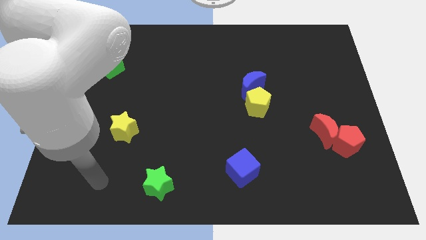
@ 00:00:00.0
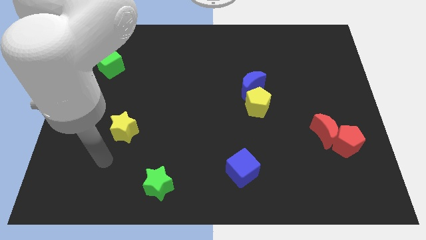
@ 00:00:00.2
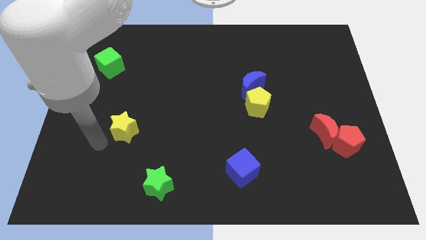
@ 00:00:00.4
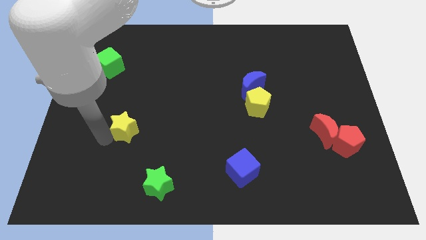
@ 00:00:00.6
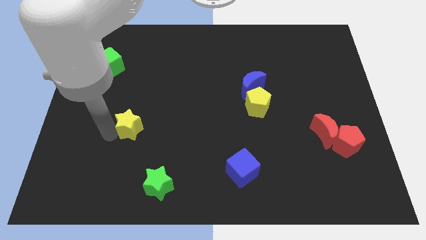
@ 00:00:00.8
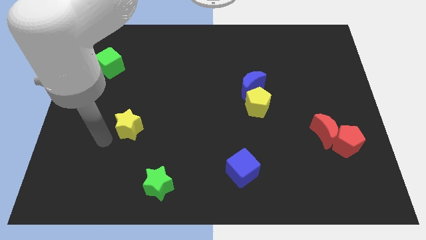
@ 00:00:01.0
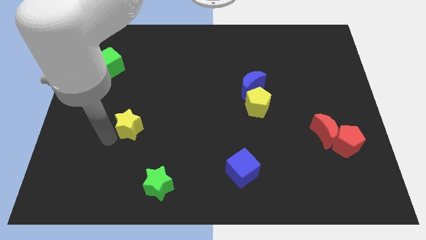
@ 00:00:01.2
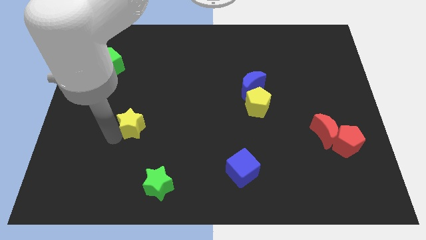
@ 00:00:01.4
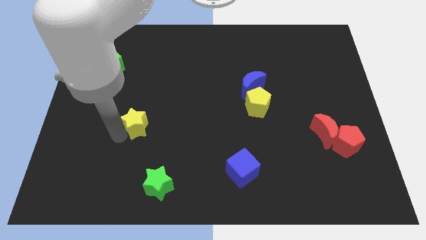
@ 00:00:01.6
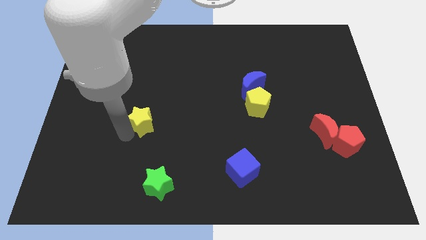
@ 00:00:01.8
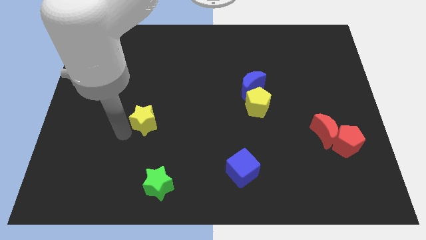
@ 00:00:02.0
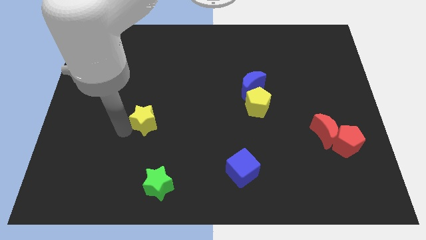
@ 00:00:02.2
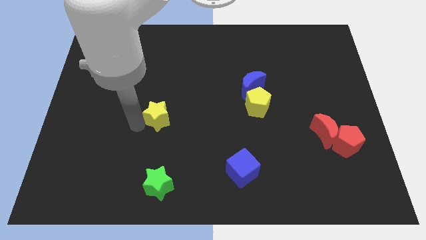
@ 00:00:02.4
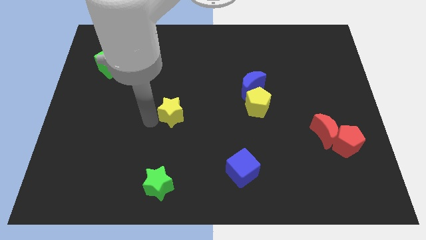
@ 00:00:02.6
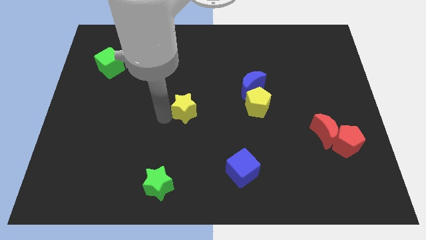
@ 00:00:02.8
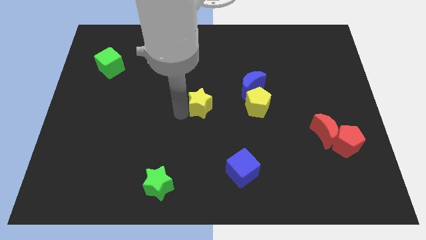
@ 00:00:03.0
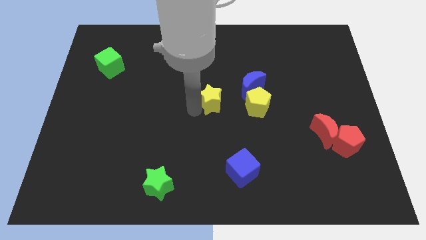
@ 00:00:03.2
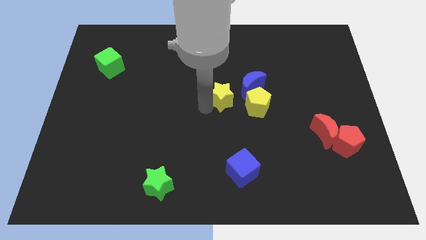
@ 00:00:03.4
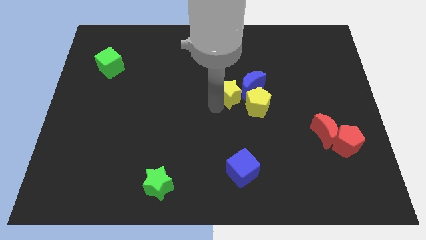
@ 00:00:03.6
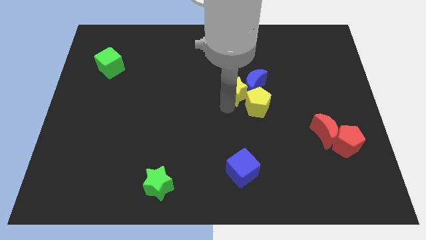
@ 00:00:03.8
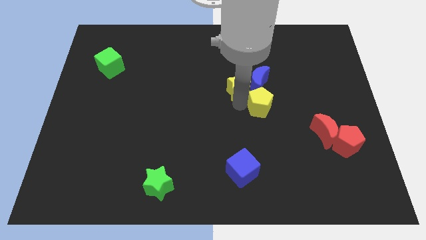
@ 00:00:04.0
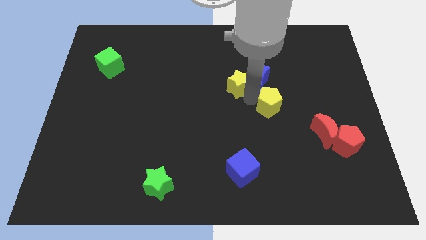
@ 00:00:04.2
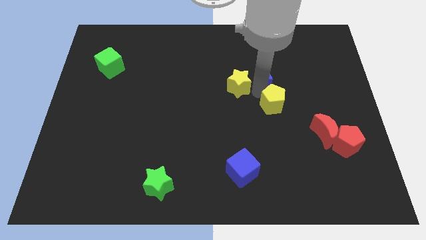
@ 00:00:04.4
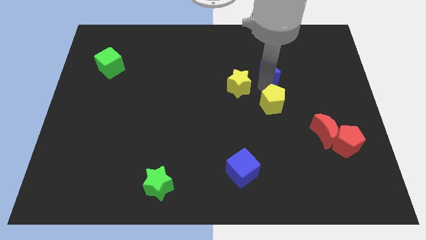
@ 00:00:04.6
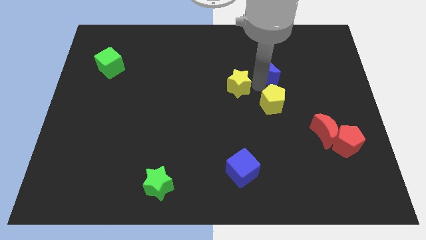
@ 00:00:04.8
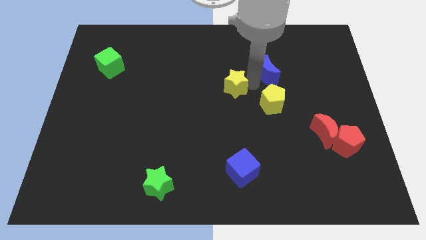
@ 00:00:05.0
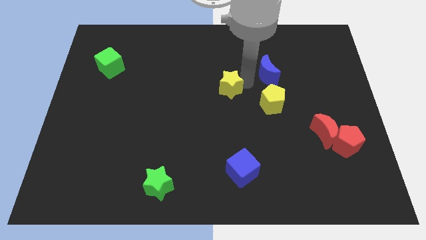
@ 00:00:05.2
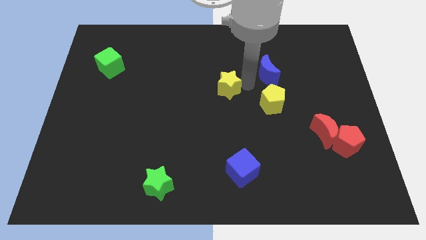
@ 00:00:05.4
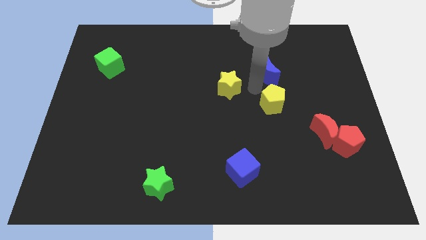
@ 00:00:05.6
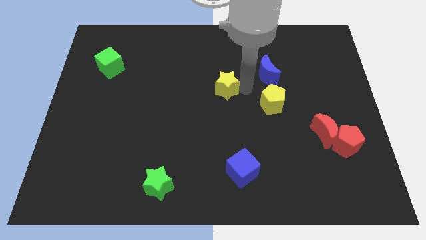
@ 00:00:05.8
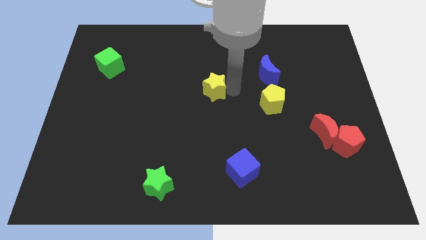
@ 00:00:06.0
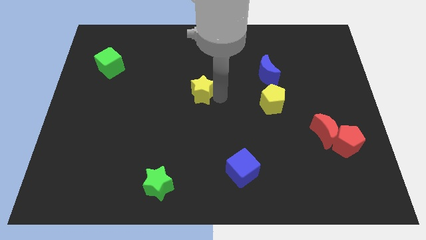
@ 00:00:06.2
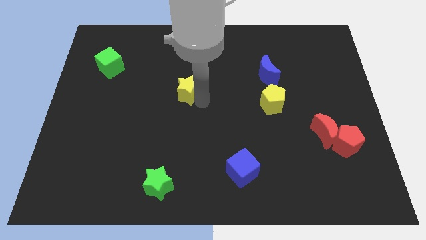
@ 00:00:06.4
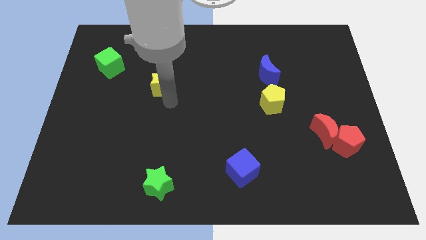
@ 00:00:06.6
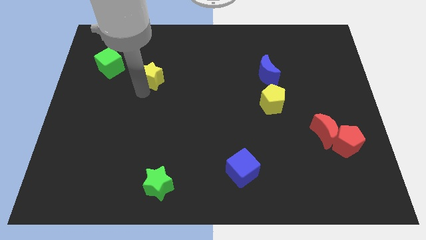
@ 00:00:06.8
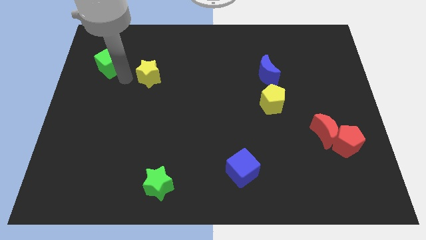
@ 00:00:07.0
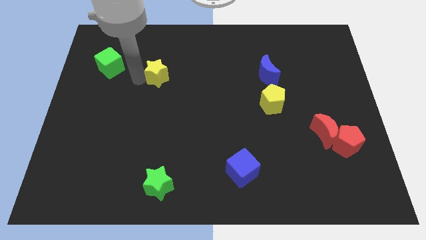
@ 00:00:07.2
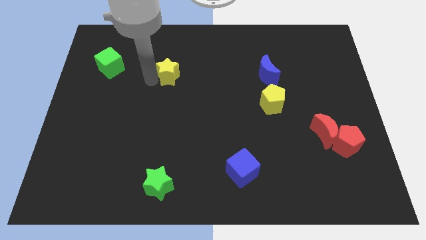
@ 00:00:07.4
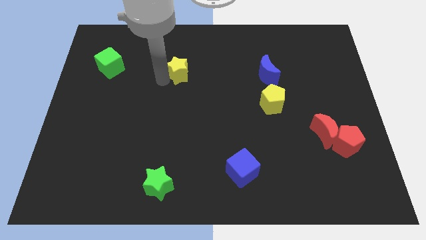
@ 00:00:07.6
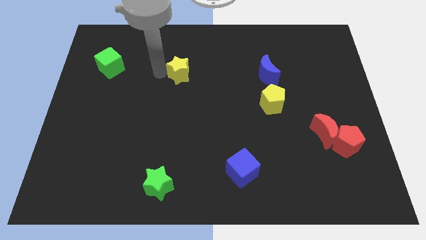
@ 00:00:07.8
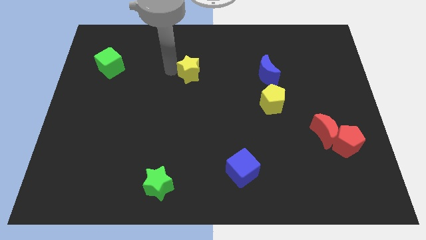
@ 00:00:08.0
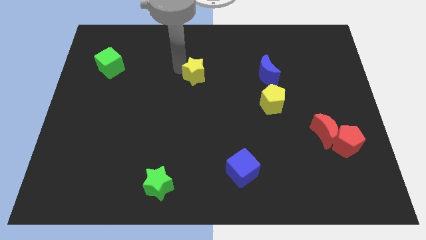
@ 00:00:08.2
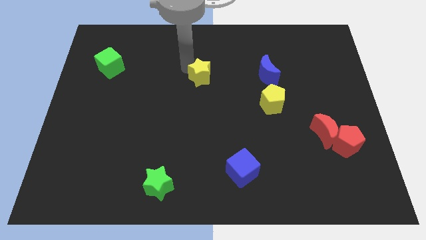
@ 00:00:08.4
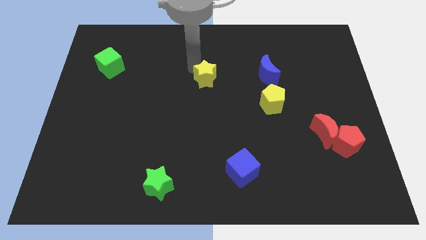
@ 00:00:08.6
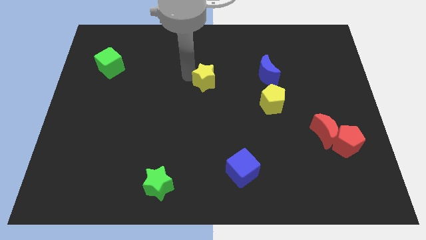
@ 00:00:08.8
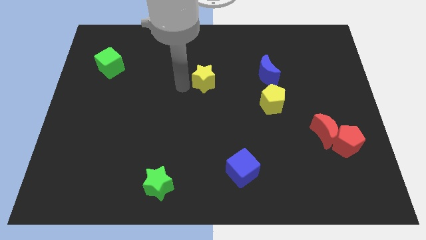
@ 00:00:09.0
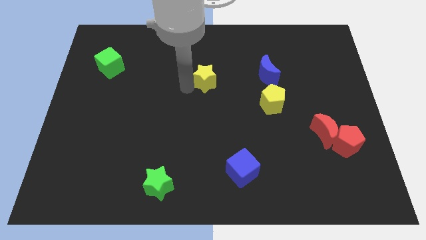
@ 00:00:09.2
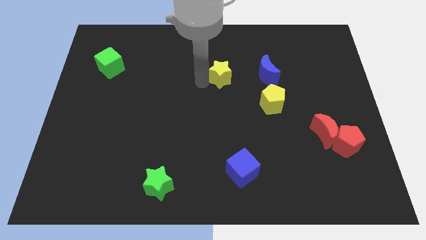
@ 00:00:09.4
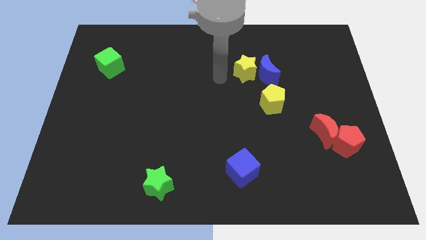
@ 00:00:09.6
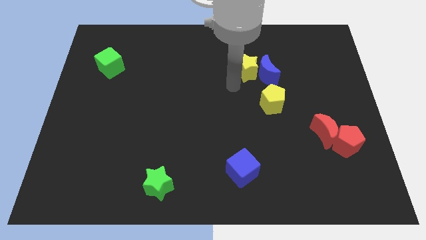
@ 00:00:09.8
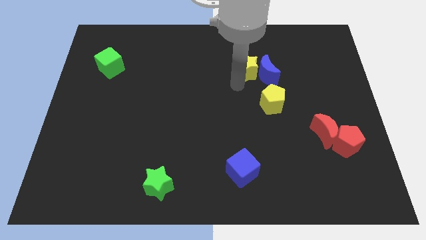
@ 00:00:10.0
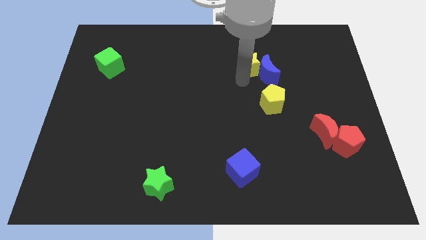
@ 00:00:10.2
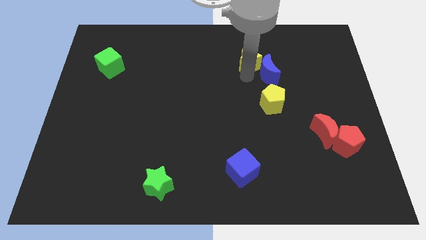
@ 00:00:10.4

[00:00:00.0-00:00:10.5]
put the yellow star to the top of the blue moon

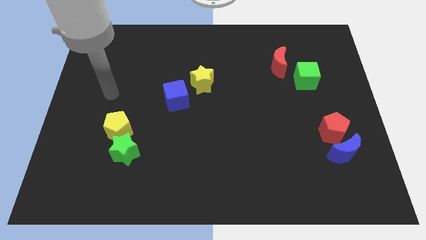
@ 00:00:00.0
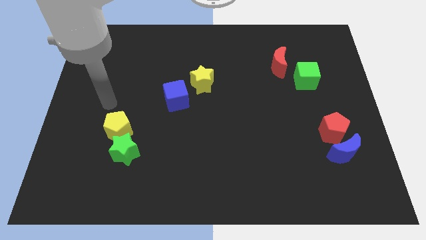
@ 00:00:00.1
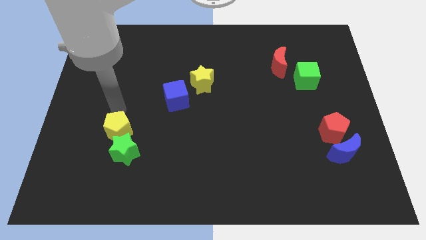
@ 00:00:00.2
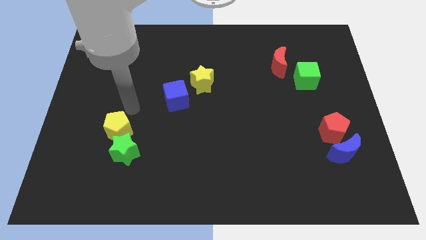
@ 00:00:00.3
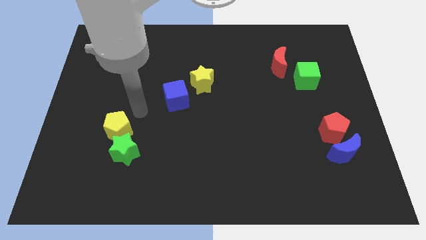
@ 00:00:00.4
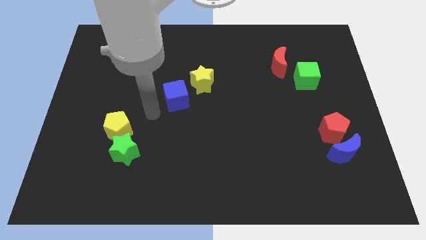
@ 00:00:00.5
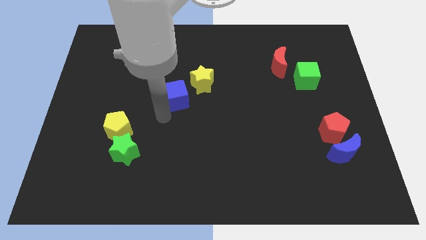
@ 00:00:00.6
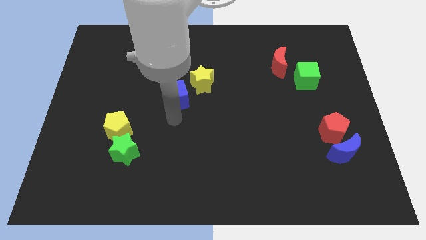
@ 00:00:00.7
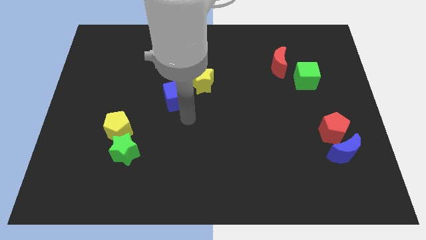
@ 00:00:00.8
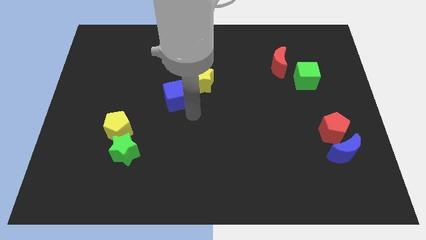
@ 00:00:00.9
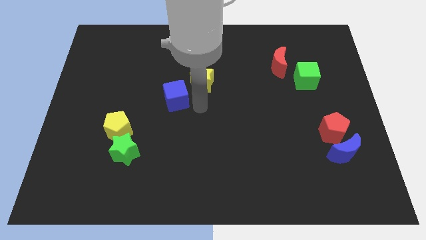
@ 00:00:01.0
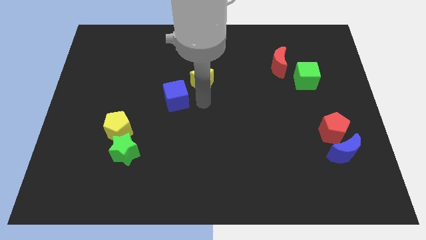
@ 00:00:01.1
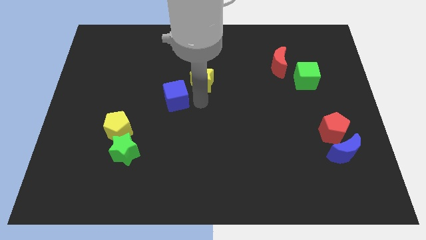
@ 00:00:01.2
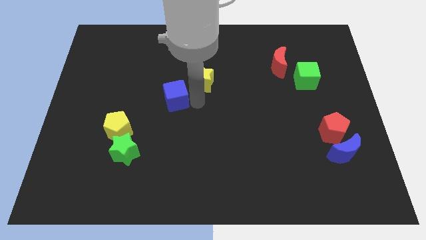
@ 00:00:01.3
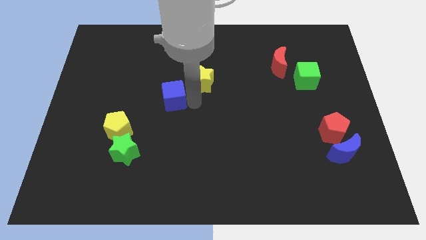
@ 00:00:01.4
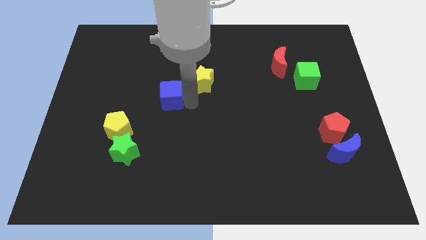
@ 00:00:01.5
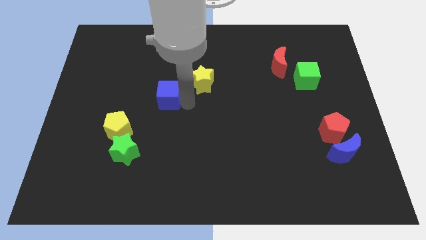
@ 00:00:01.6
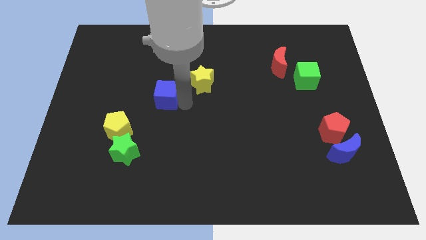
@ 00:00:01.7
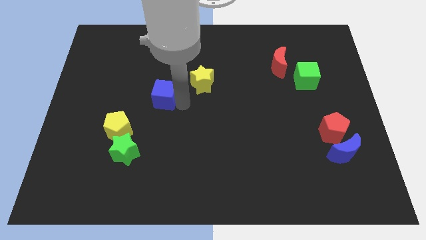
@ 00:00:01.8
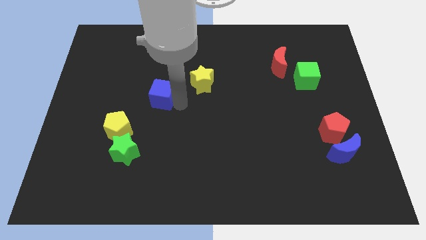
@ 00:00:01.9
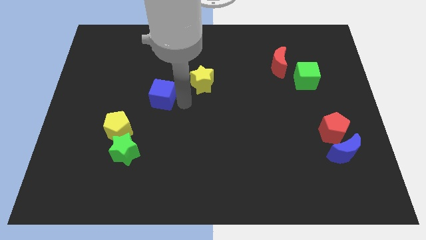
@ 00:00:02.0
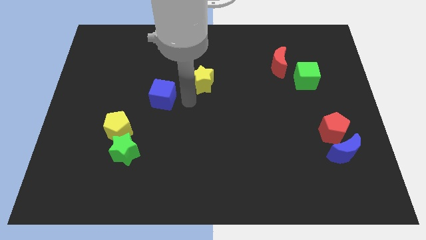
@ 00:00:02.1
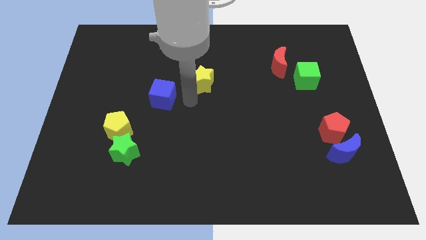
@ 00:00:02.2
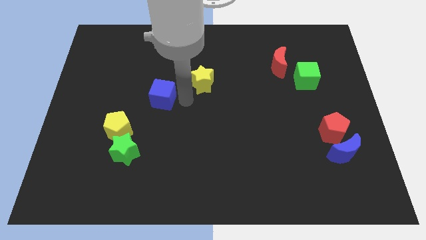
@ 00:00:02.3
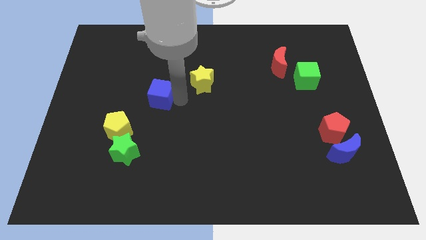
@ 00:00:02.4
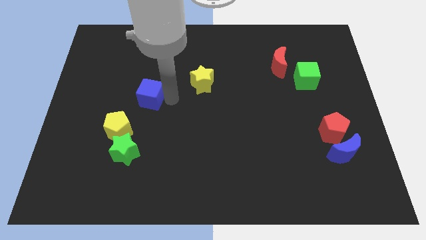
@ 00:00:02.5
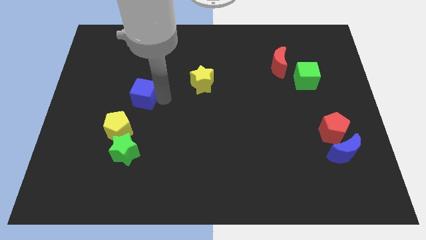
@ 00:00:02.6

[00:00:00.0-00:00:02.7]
push the blue cube to the top side of the yellow pentagon
